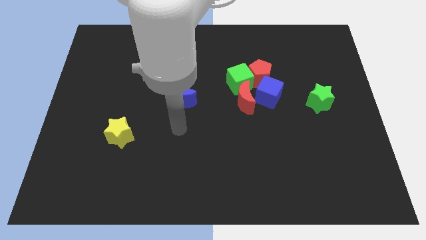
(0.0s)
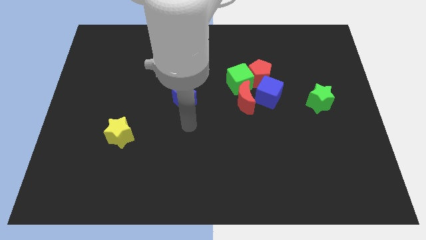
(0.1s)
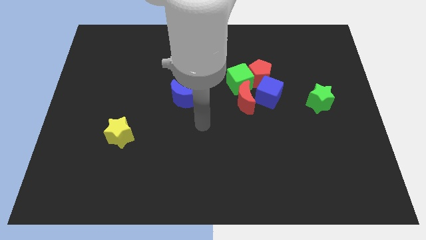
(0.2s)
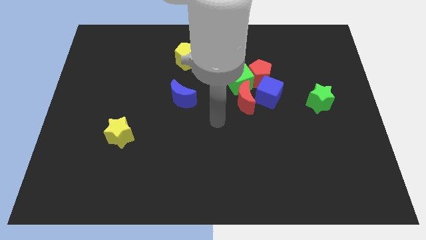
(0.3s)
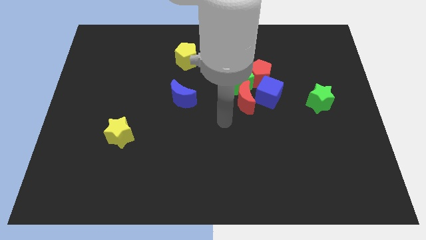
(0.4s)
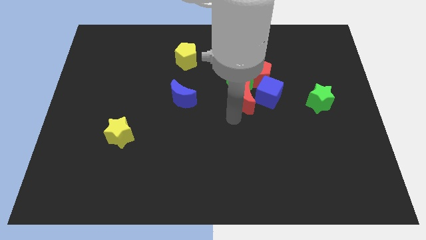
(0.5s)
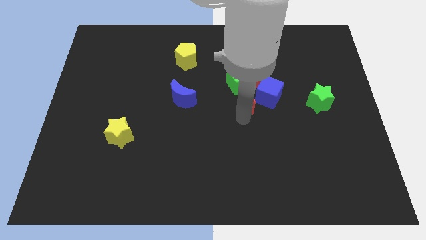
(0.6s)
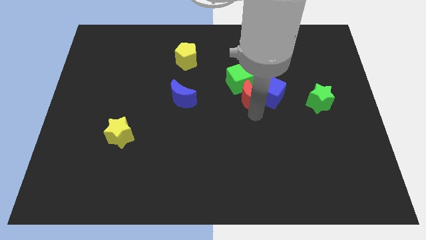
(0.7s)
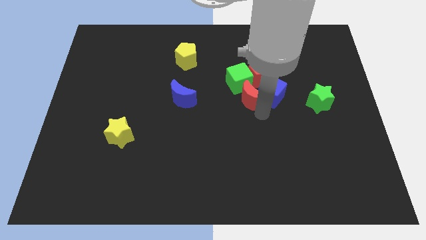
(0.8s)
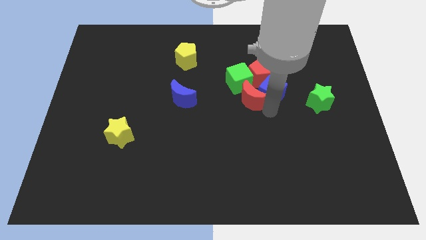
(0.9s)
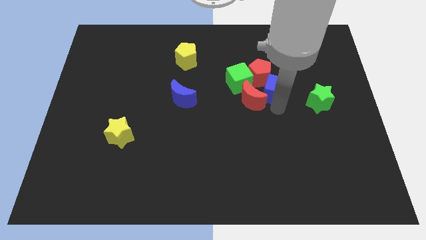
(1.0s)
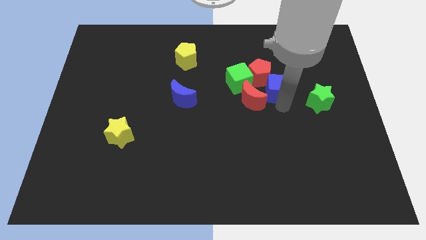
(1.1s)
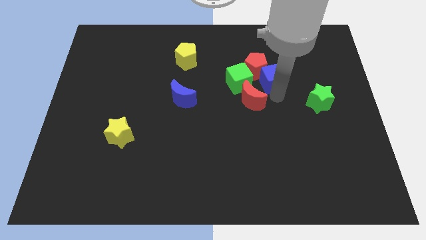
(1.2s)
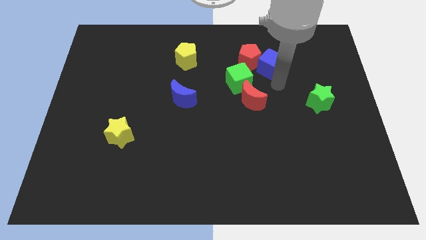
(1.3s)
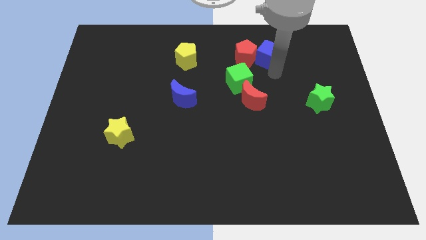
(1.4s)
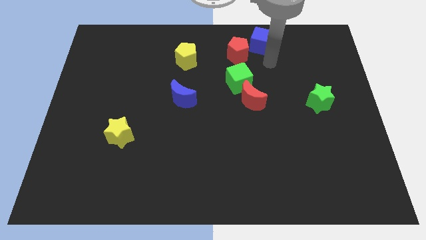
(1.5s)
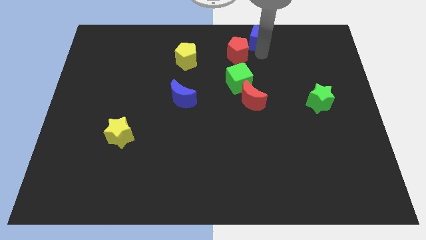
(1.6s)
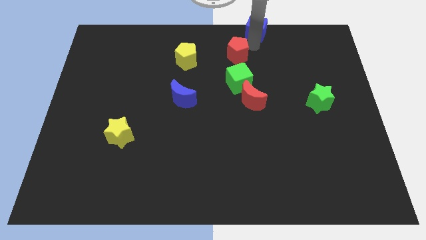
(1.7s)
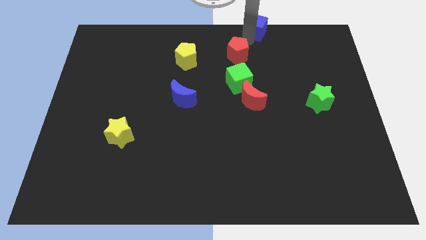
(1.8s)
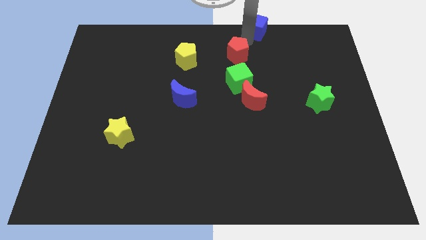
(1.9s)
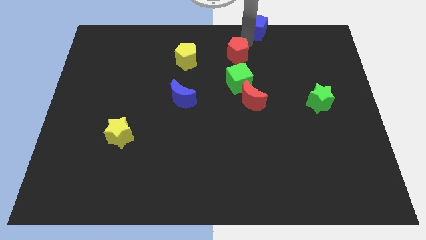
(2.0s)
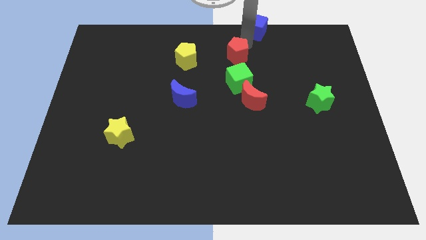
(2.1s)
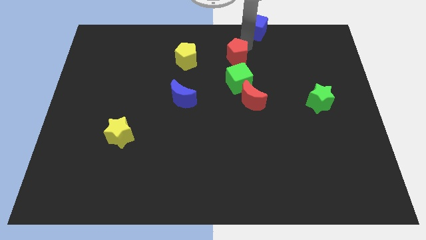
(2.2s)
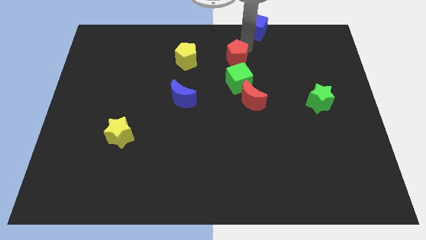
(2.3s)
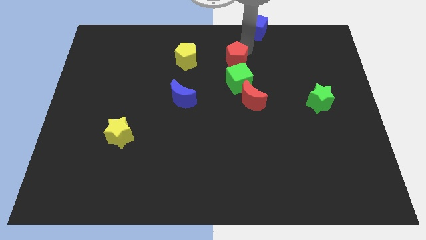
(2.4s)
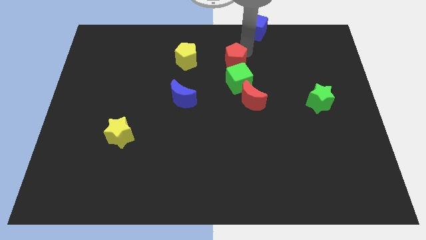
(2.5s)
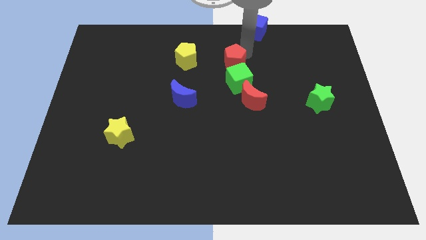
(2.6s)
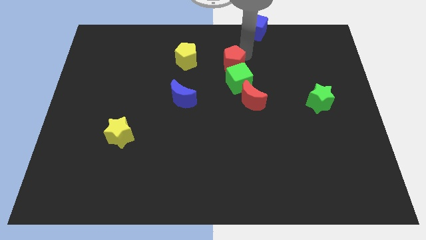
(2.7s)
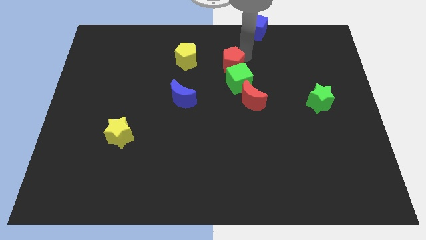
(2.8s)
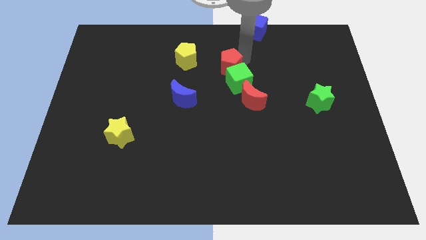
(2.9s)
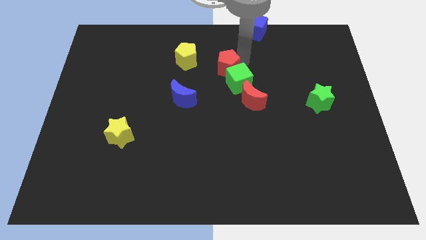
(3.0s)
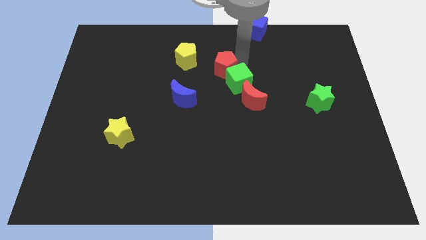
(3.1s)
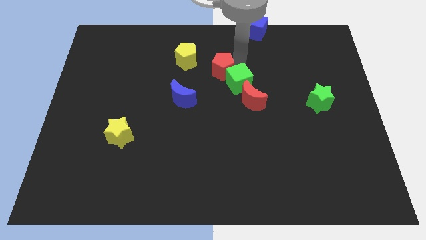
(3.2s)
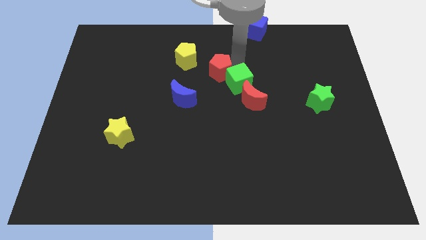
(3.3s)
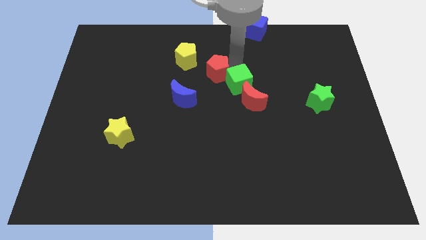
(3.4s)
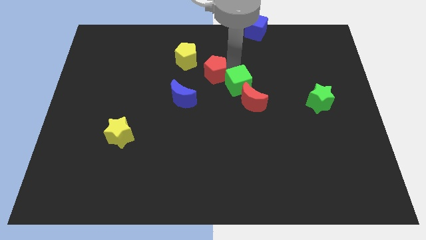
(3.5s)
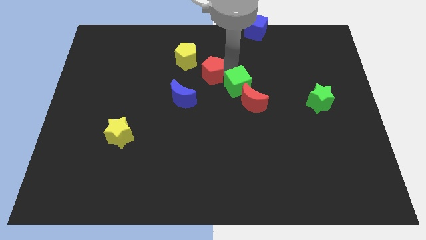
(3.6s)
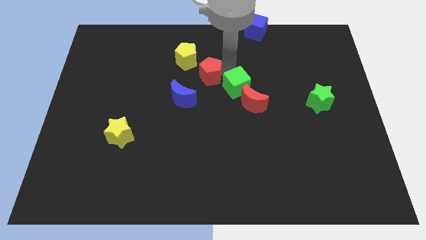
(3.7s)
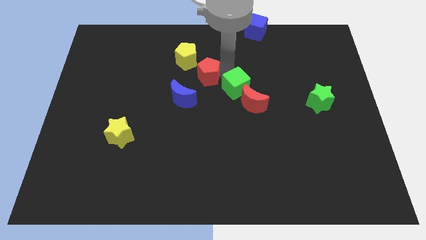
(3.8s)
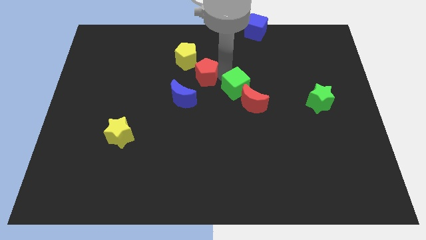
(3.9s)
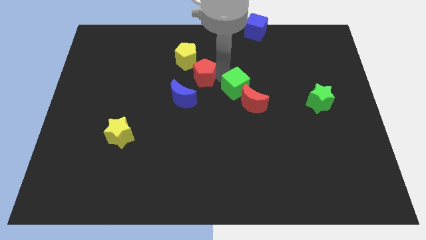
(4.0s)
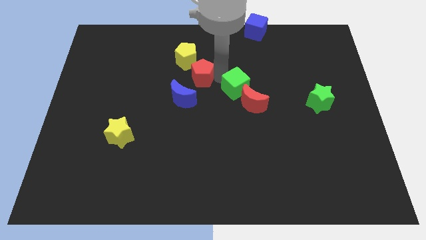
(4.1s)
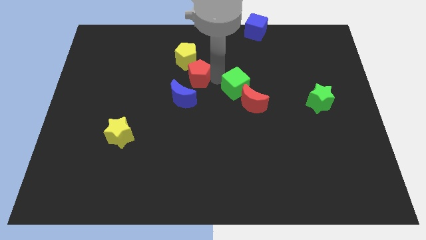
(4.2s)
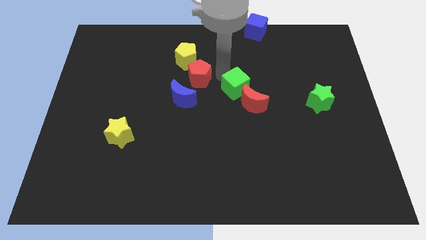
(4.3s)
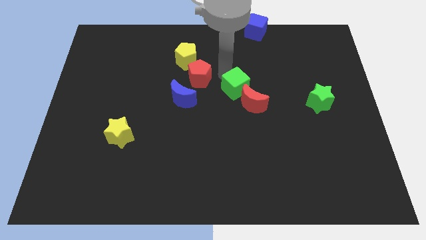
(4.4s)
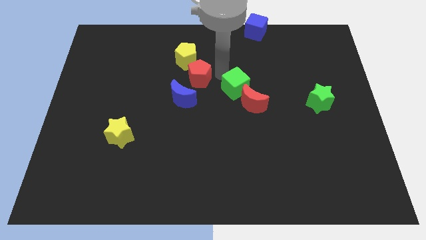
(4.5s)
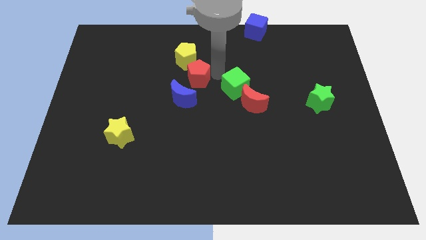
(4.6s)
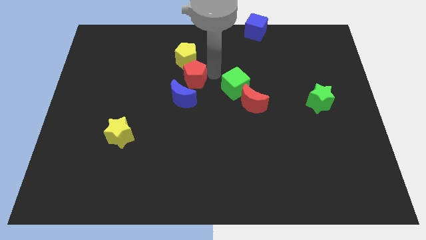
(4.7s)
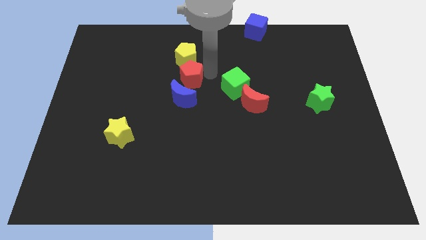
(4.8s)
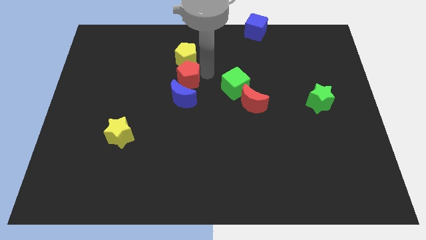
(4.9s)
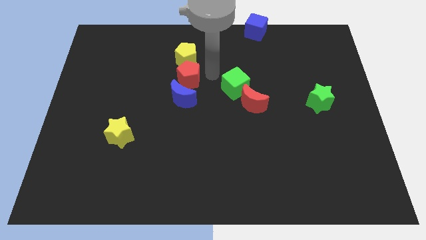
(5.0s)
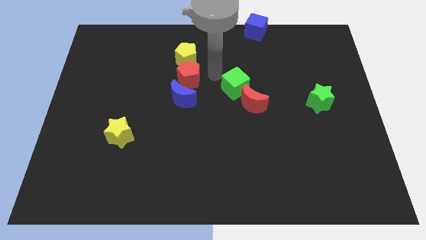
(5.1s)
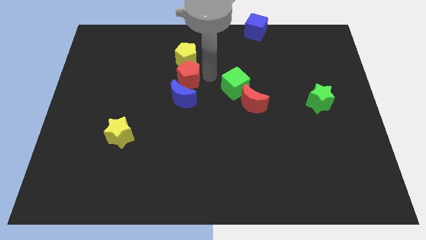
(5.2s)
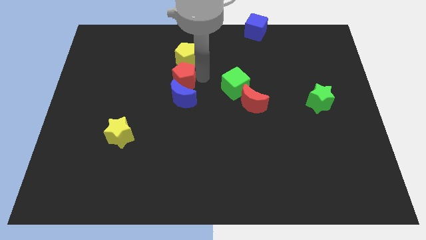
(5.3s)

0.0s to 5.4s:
put the red pentagon to the top left side of the blue moon

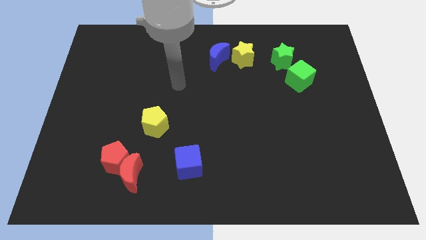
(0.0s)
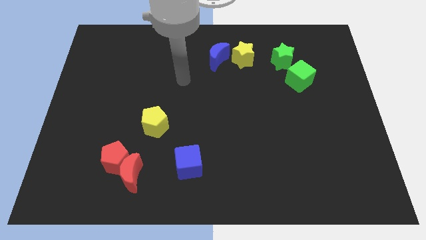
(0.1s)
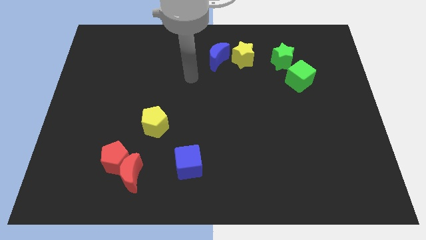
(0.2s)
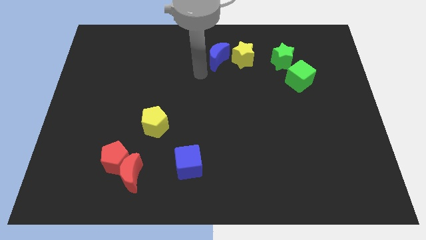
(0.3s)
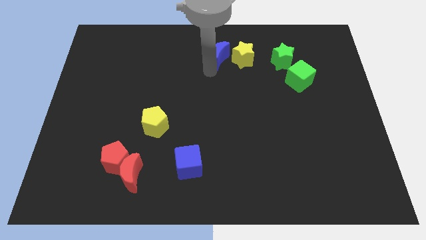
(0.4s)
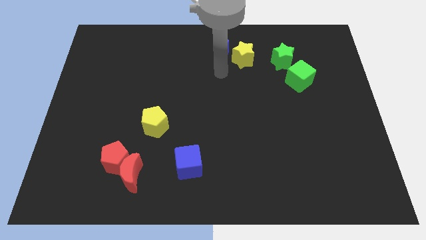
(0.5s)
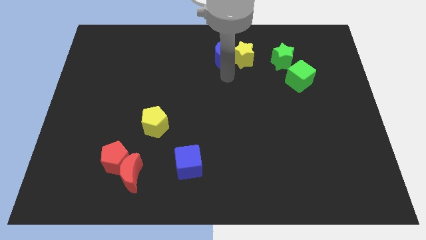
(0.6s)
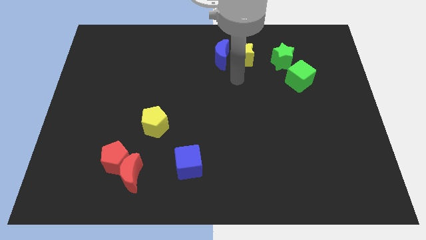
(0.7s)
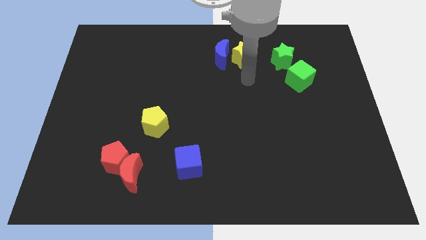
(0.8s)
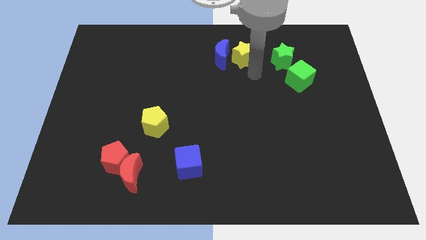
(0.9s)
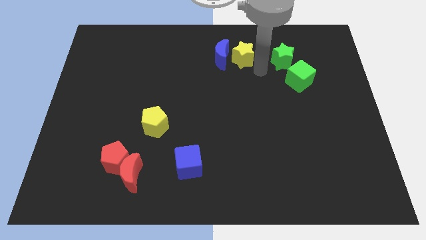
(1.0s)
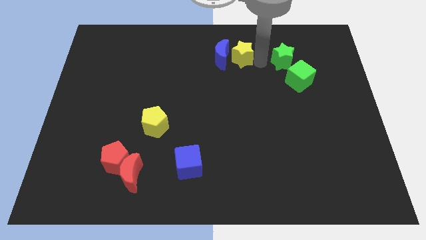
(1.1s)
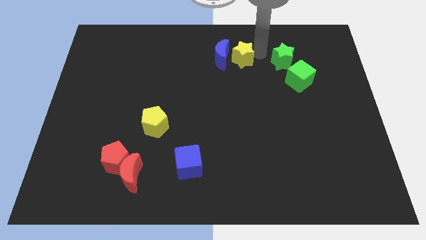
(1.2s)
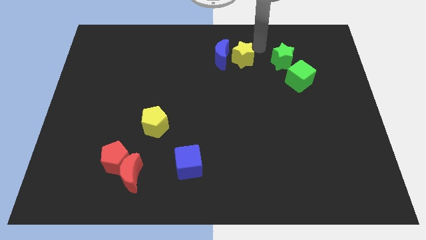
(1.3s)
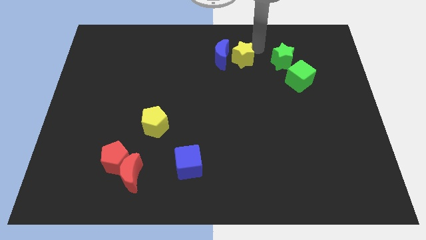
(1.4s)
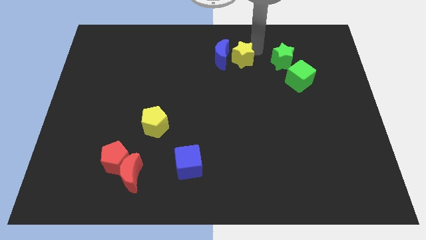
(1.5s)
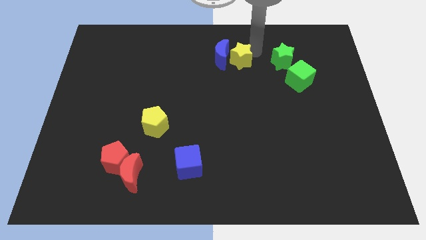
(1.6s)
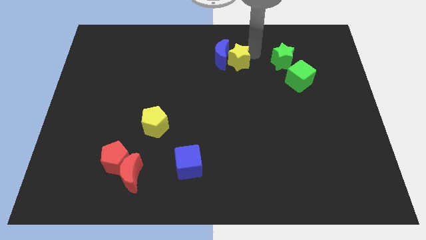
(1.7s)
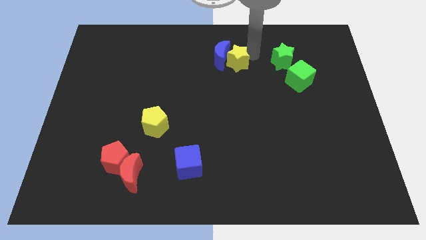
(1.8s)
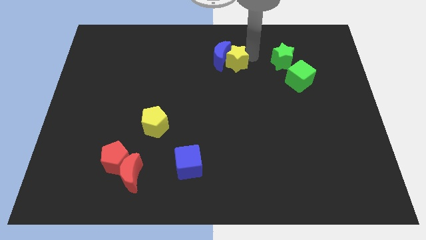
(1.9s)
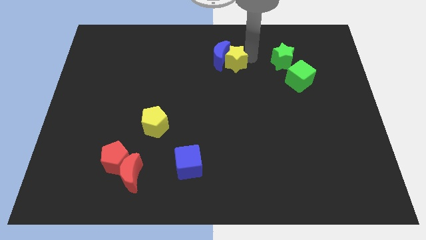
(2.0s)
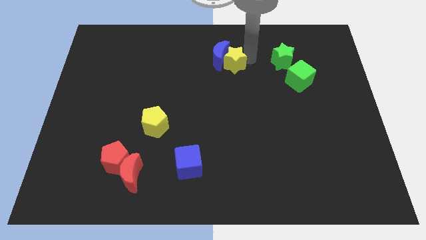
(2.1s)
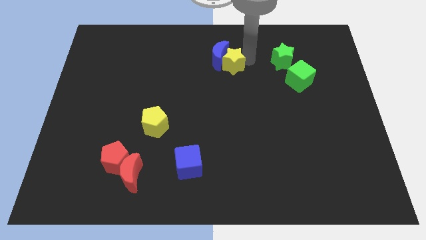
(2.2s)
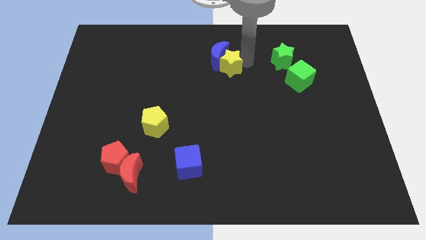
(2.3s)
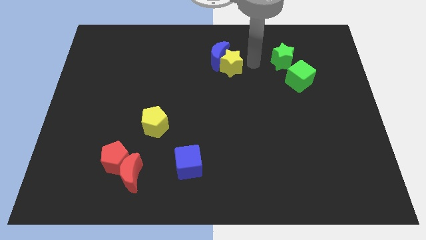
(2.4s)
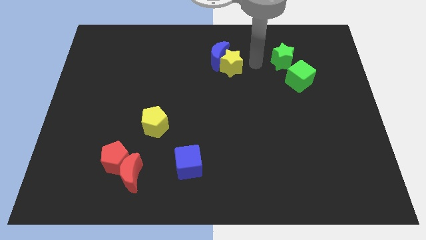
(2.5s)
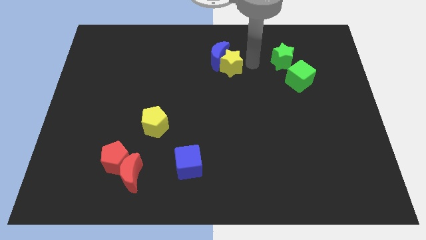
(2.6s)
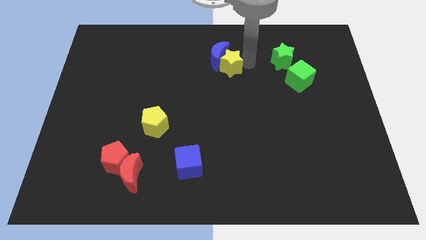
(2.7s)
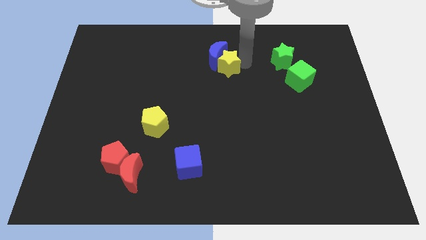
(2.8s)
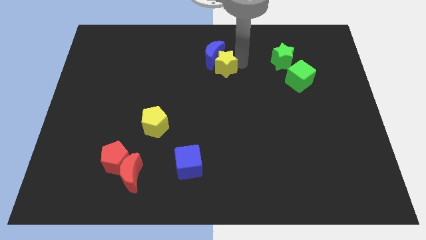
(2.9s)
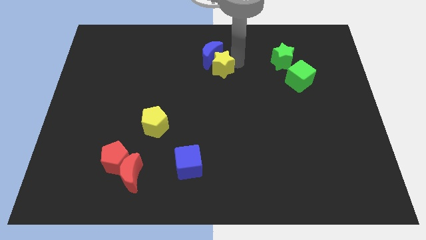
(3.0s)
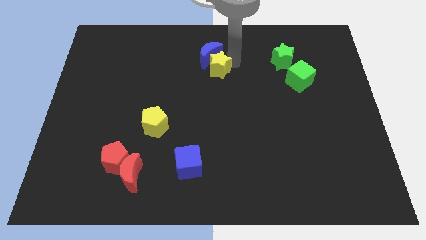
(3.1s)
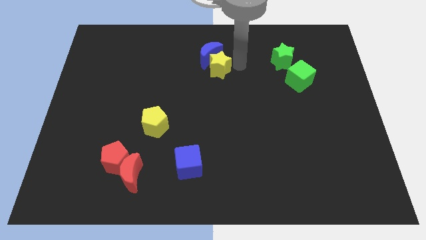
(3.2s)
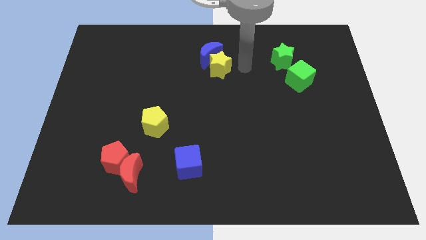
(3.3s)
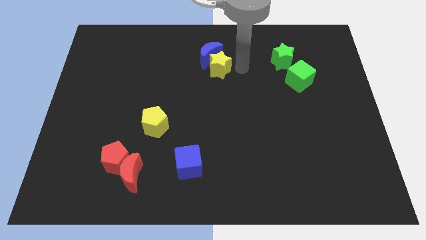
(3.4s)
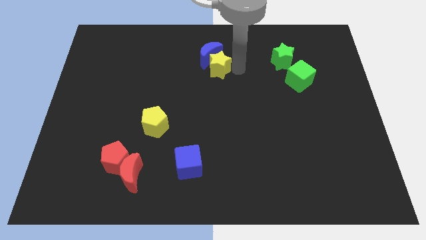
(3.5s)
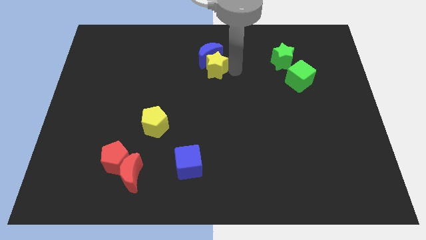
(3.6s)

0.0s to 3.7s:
push the yellow star diagonally down and to the left of the blue moon
